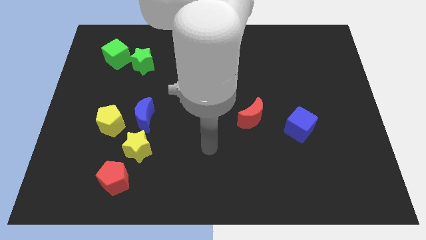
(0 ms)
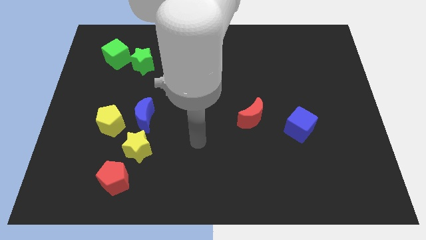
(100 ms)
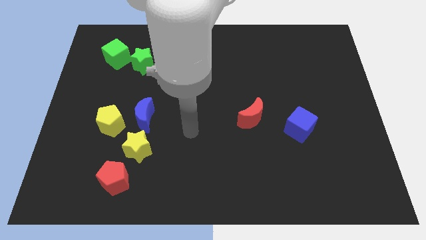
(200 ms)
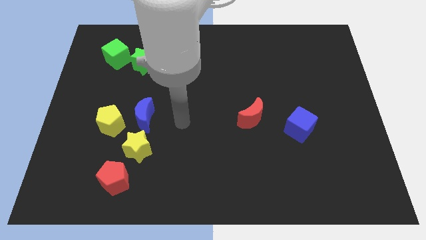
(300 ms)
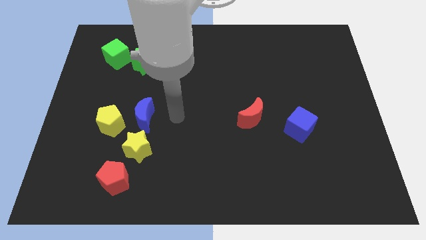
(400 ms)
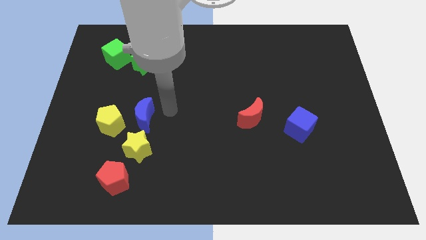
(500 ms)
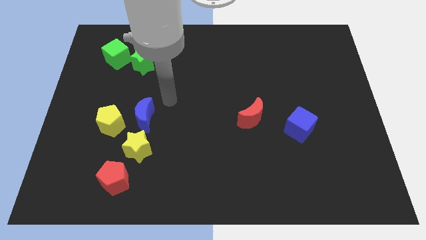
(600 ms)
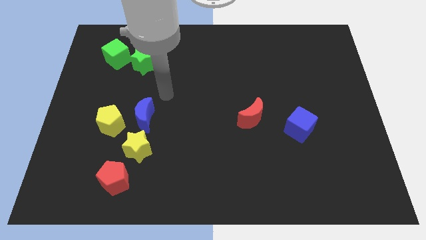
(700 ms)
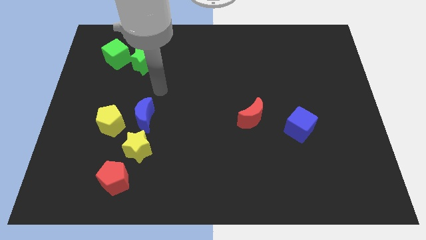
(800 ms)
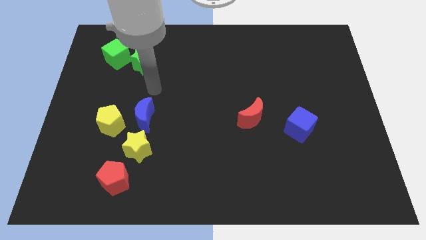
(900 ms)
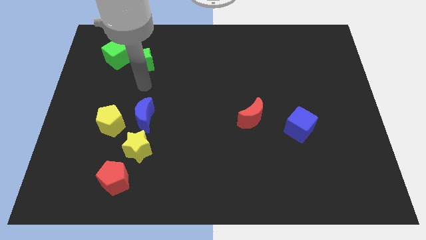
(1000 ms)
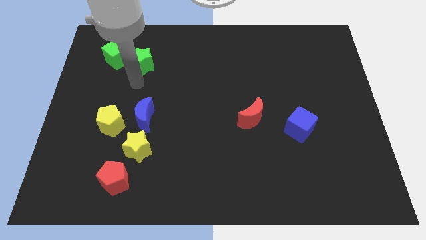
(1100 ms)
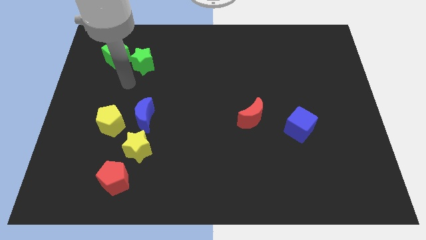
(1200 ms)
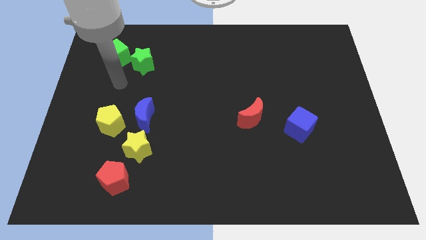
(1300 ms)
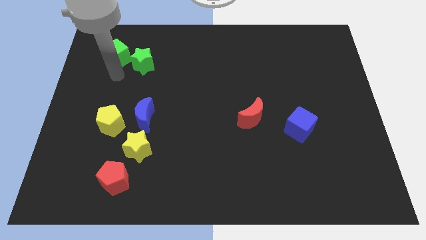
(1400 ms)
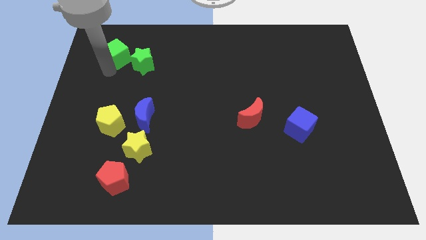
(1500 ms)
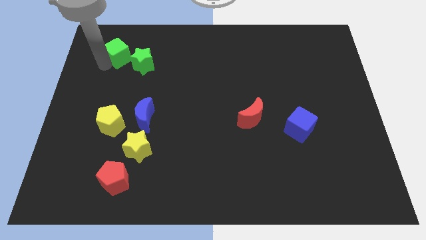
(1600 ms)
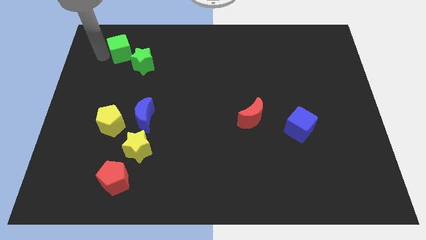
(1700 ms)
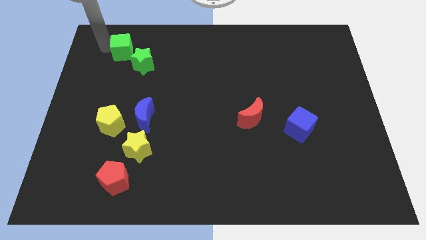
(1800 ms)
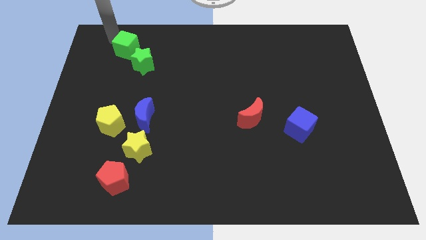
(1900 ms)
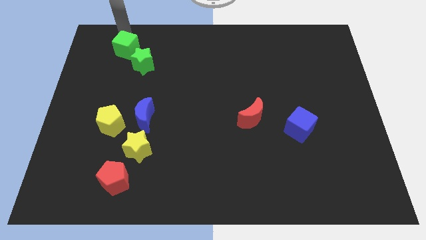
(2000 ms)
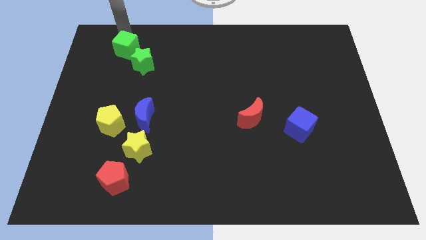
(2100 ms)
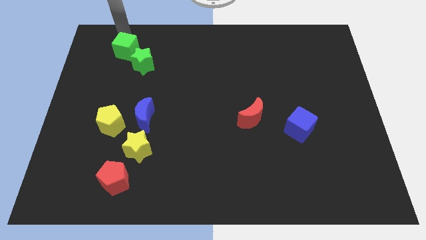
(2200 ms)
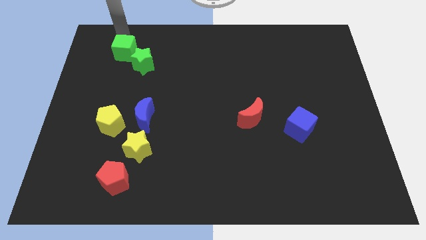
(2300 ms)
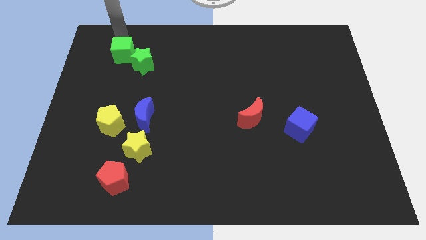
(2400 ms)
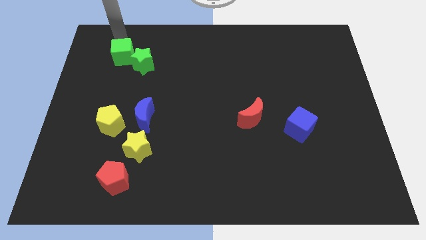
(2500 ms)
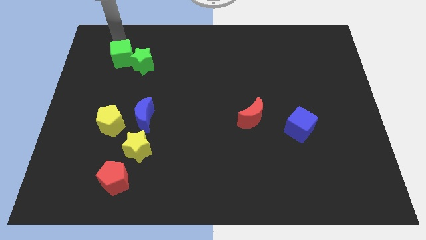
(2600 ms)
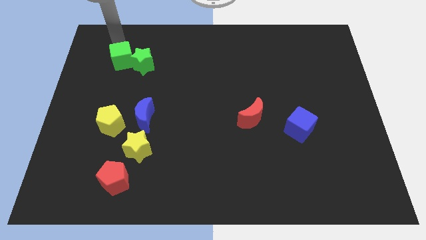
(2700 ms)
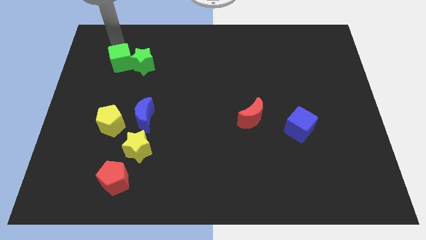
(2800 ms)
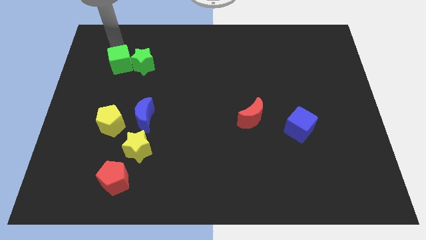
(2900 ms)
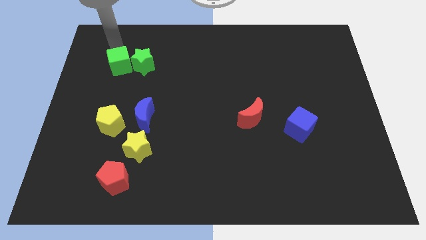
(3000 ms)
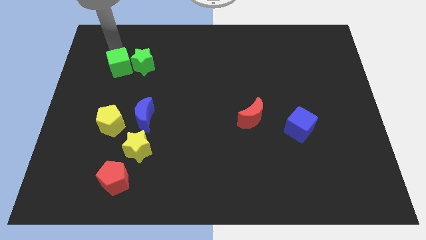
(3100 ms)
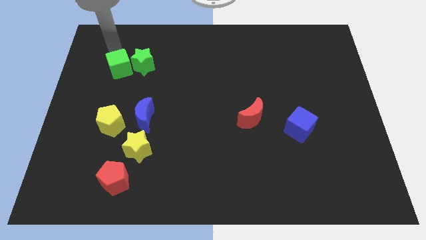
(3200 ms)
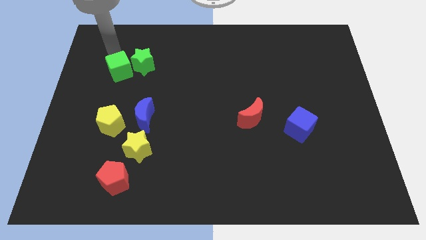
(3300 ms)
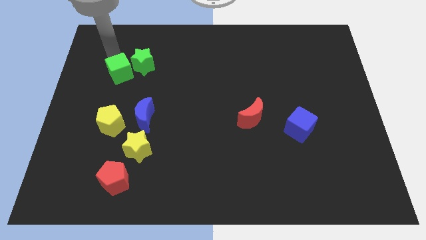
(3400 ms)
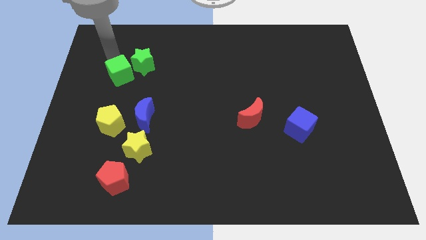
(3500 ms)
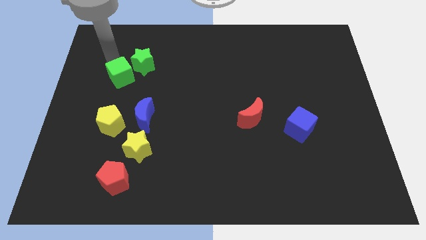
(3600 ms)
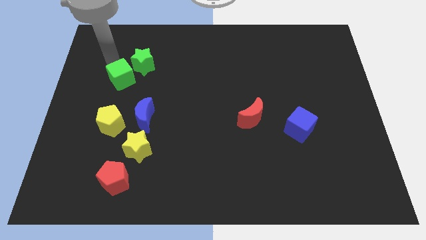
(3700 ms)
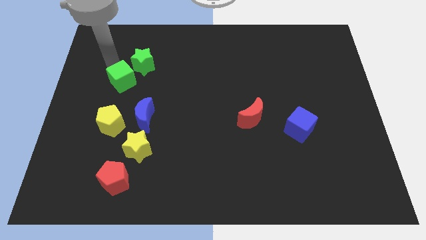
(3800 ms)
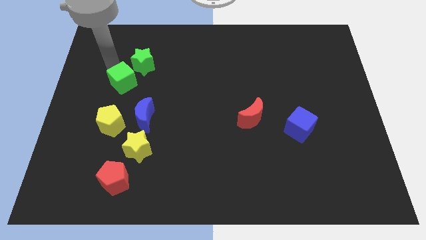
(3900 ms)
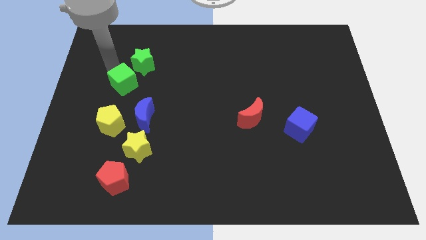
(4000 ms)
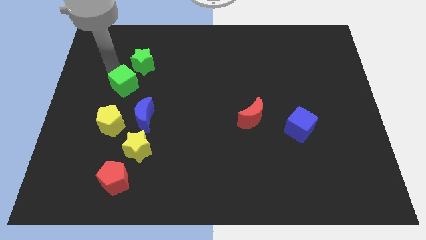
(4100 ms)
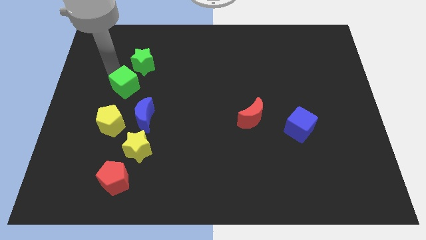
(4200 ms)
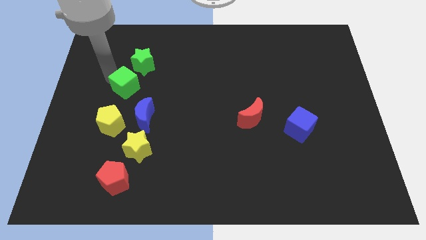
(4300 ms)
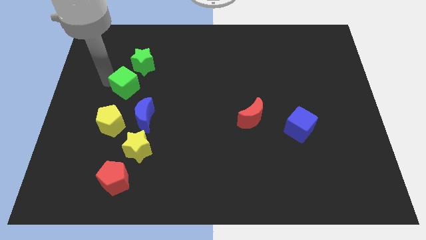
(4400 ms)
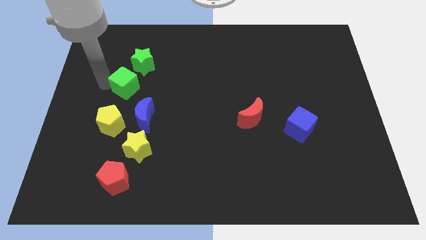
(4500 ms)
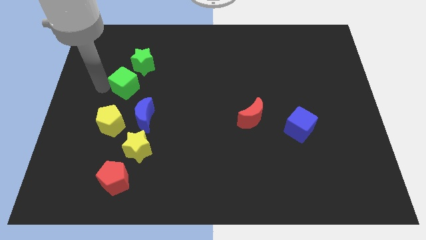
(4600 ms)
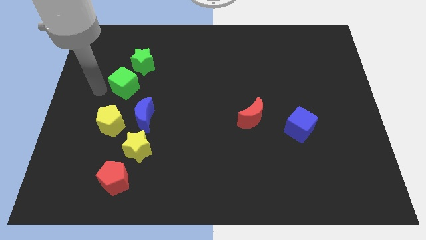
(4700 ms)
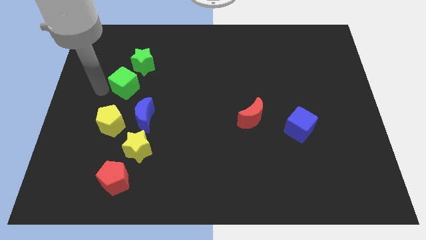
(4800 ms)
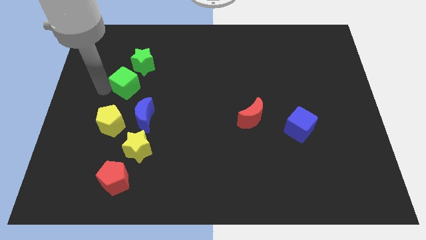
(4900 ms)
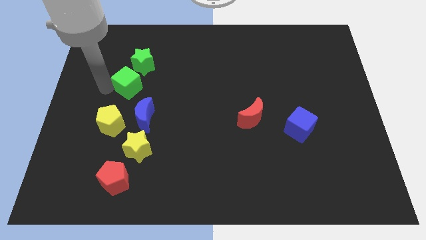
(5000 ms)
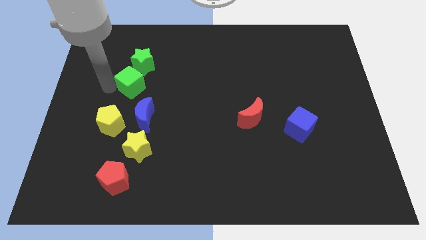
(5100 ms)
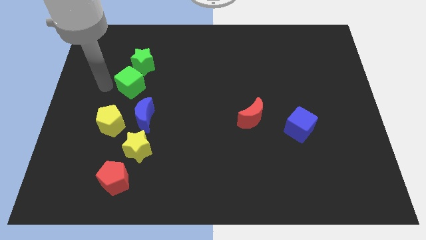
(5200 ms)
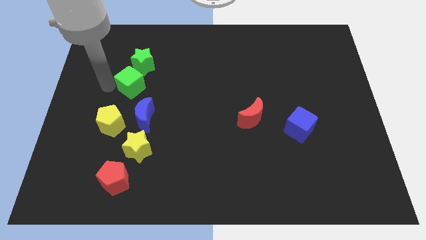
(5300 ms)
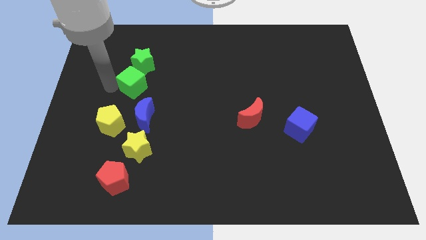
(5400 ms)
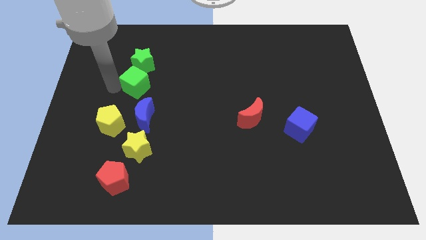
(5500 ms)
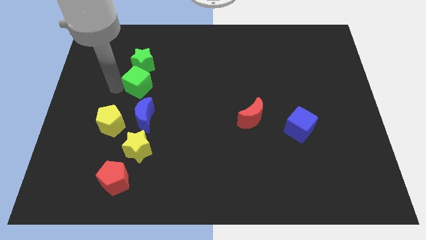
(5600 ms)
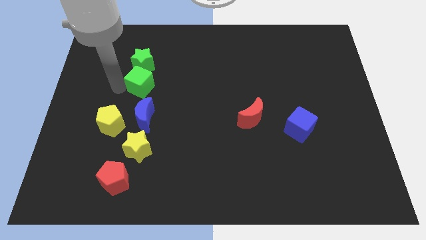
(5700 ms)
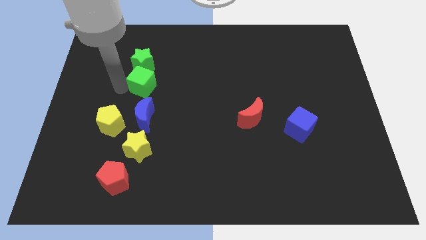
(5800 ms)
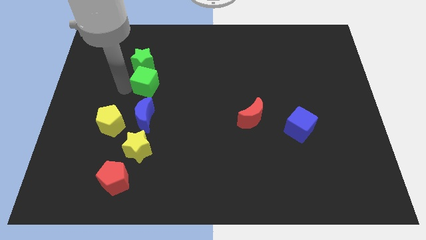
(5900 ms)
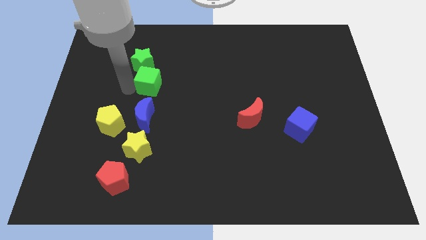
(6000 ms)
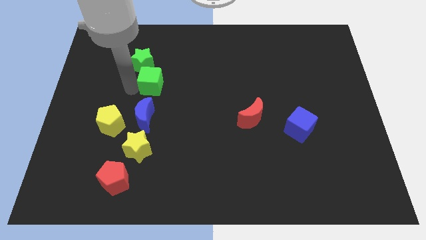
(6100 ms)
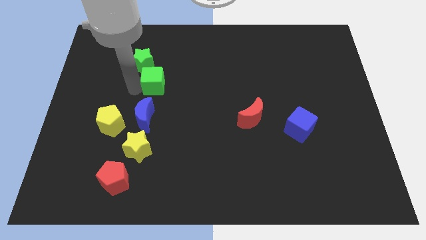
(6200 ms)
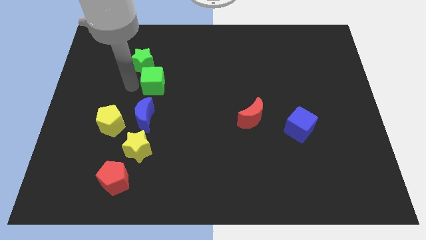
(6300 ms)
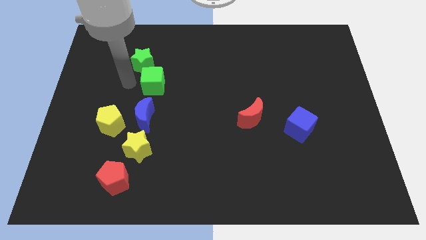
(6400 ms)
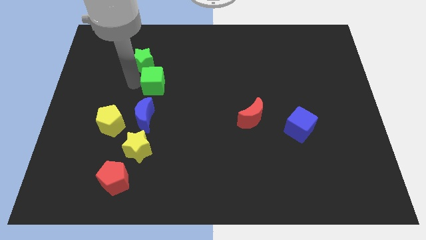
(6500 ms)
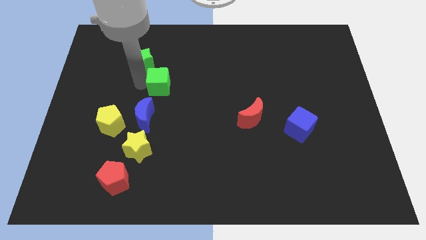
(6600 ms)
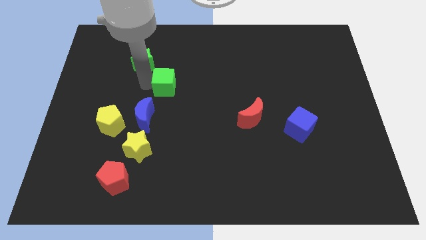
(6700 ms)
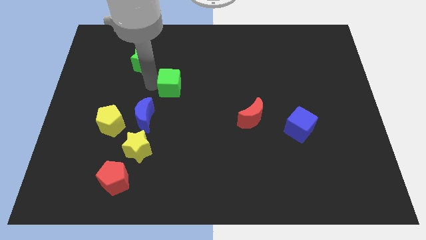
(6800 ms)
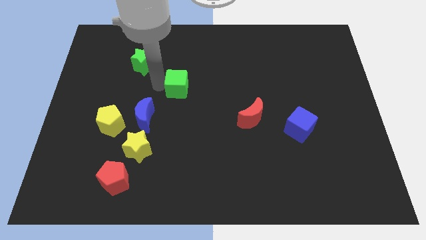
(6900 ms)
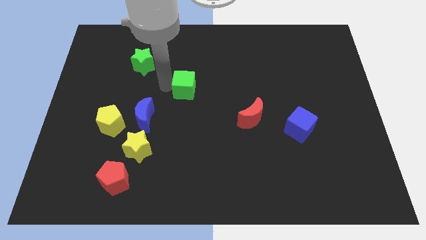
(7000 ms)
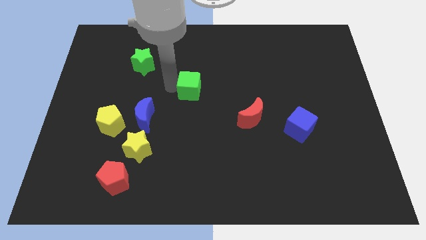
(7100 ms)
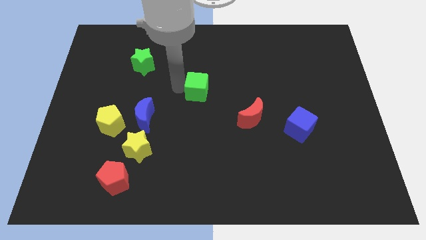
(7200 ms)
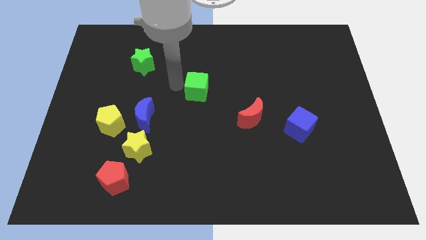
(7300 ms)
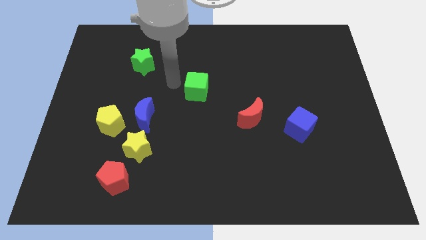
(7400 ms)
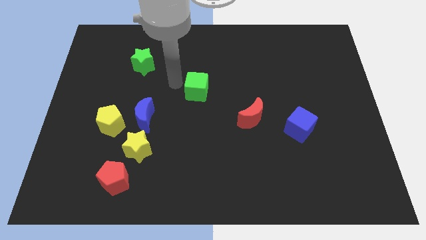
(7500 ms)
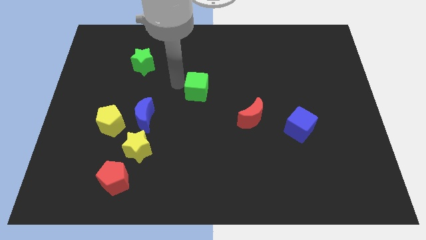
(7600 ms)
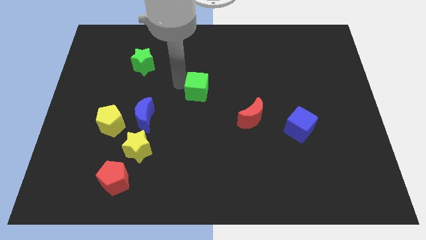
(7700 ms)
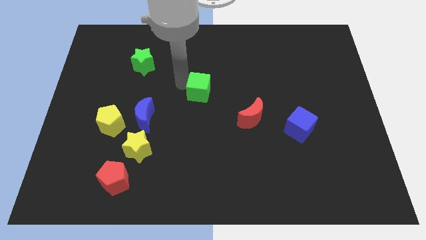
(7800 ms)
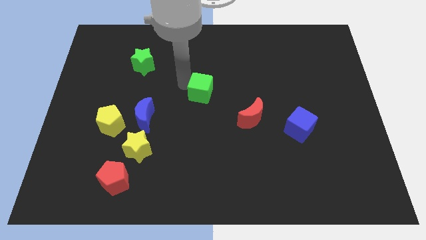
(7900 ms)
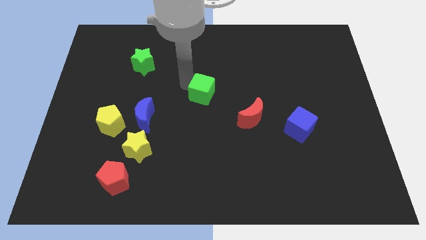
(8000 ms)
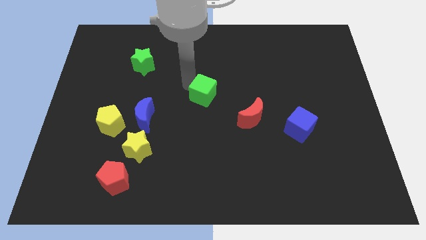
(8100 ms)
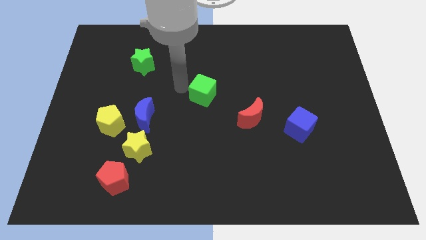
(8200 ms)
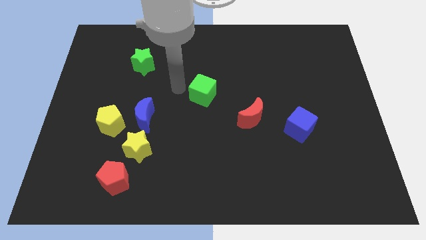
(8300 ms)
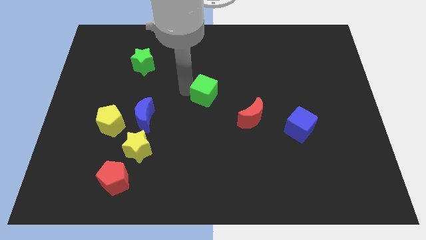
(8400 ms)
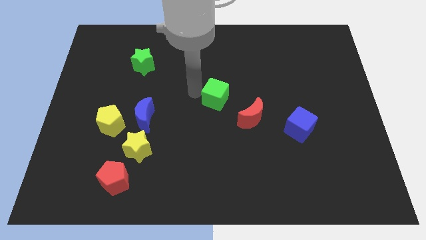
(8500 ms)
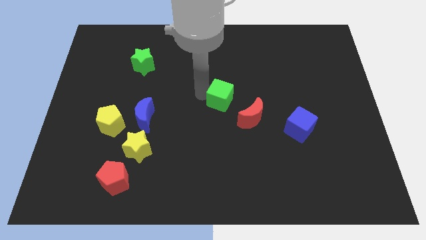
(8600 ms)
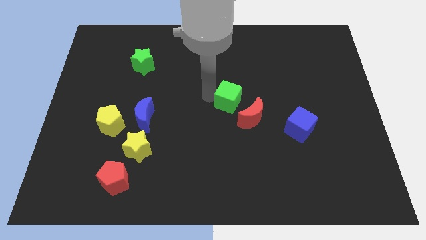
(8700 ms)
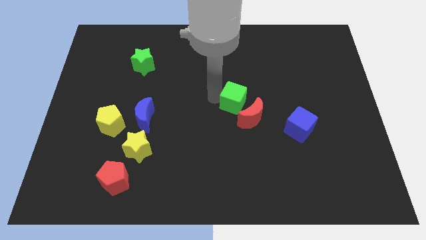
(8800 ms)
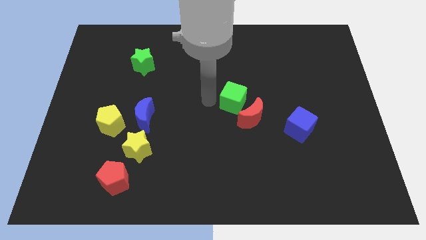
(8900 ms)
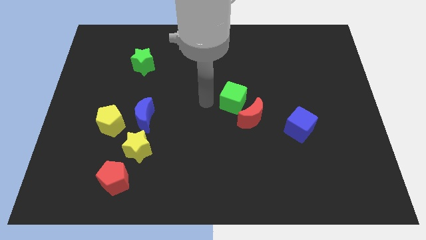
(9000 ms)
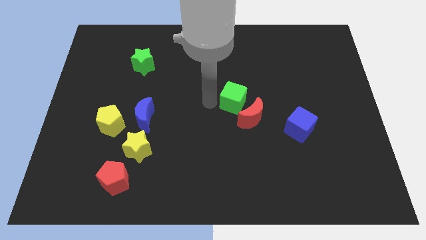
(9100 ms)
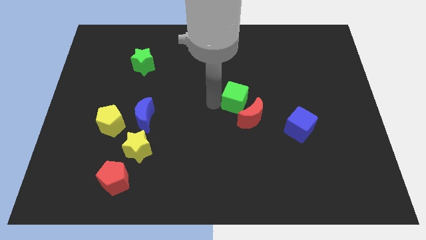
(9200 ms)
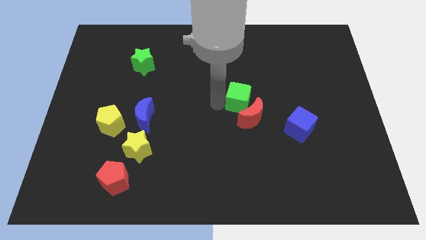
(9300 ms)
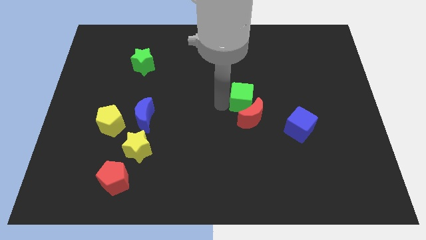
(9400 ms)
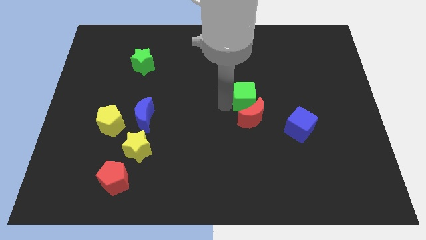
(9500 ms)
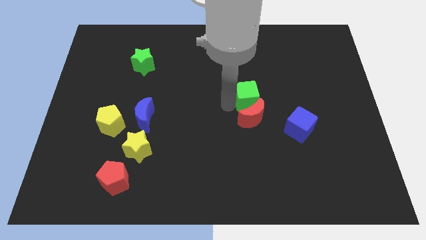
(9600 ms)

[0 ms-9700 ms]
put the green cube diagonally up and to the right of the red moon
